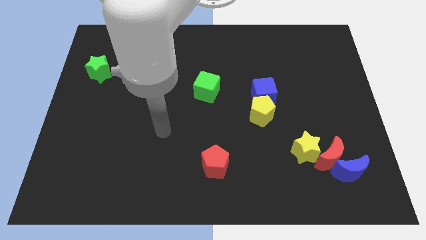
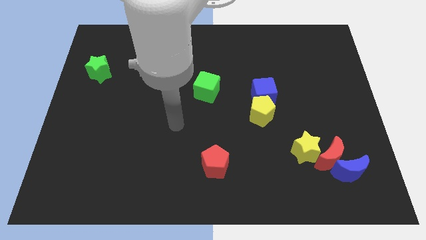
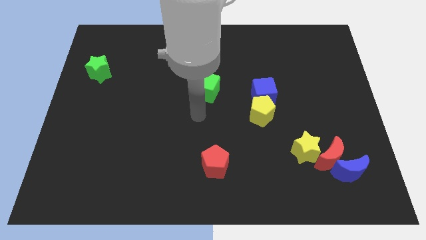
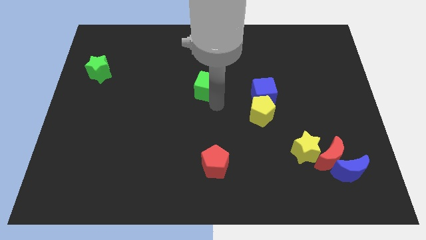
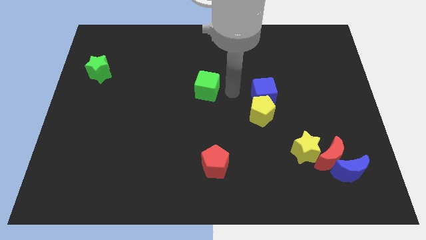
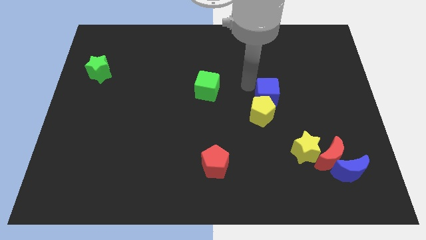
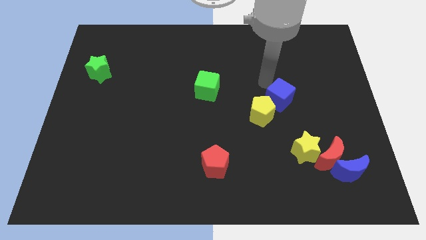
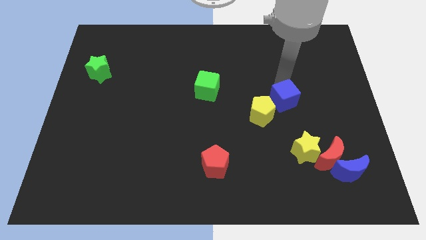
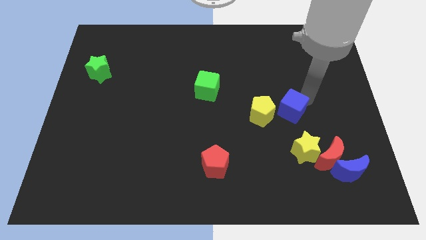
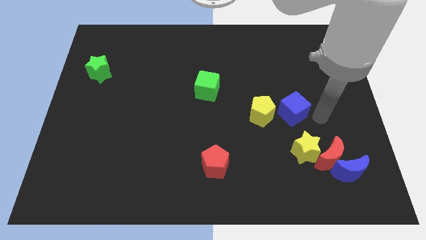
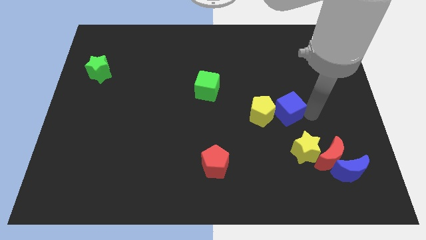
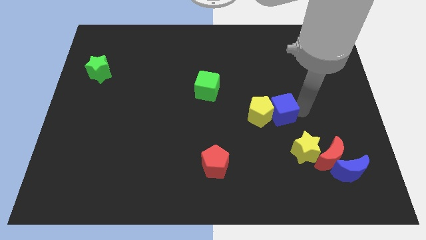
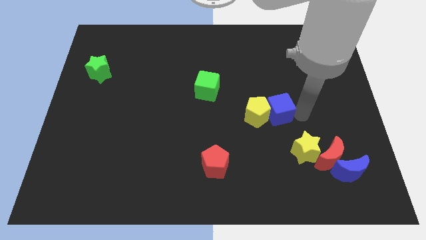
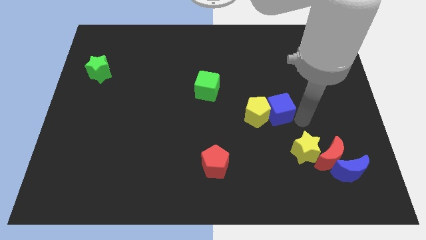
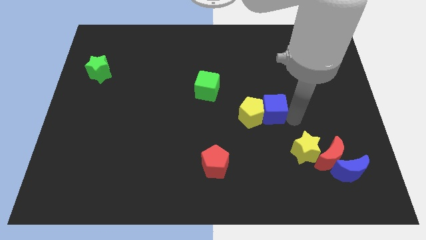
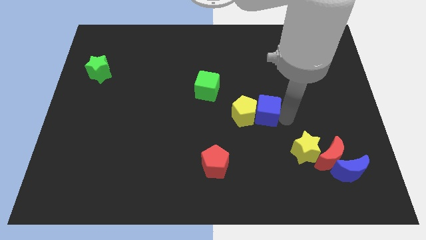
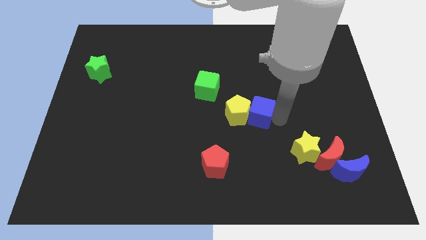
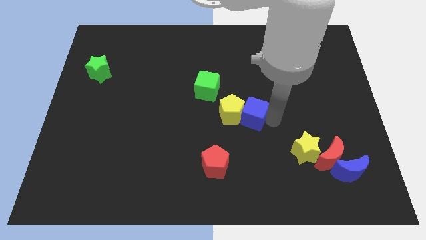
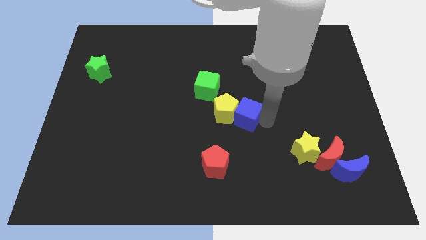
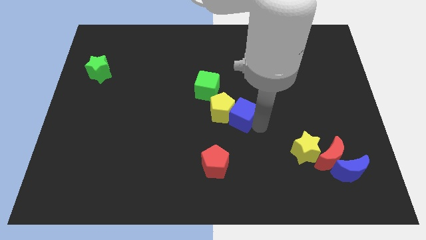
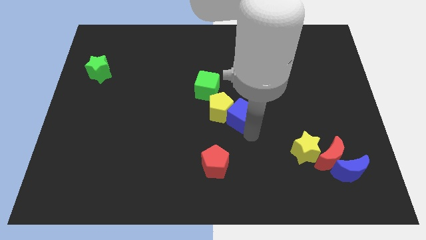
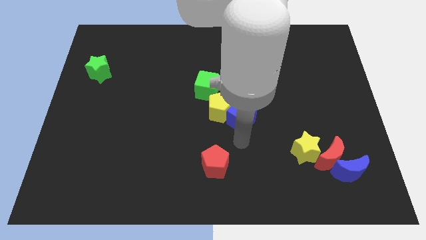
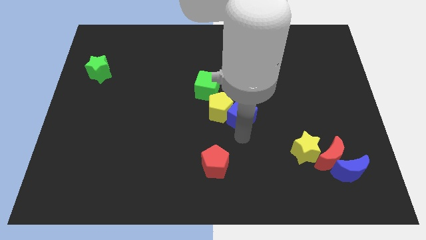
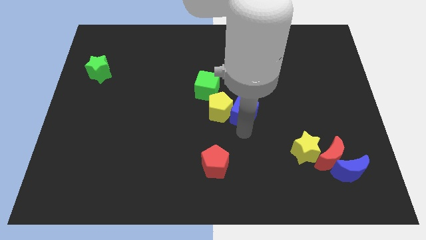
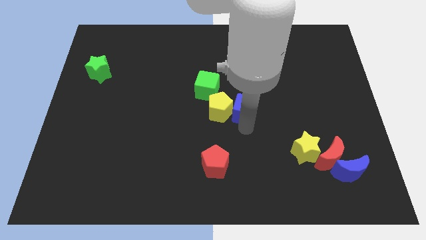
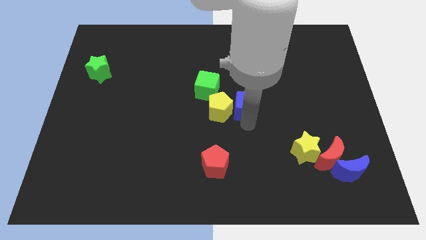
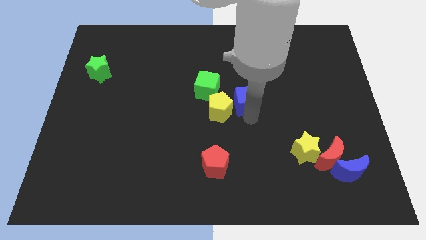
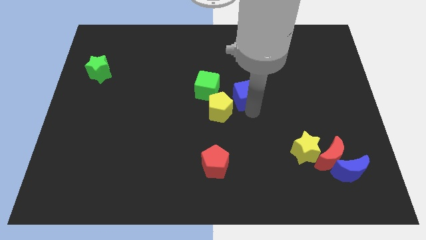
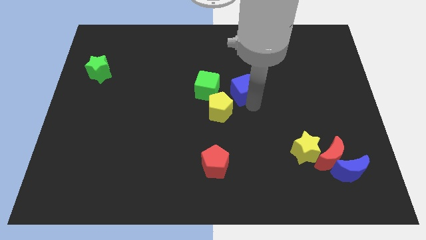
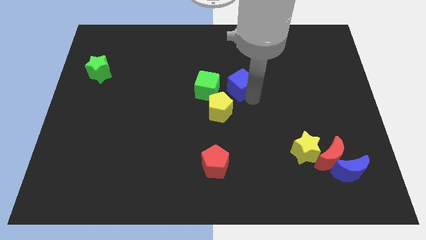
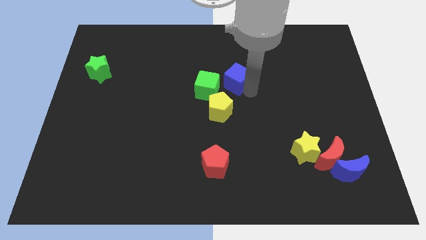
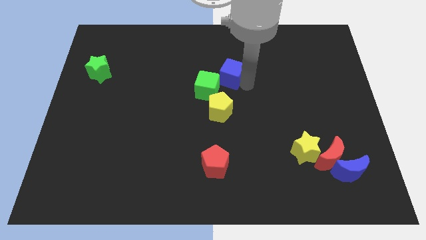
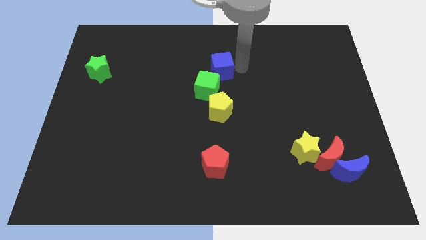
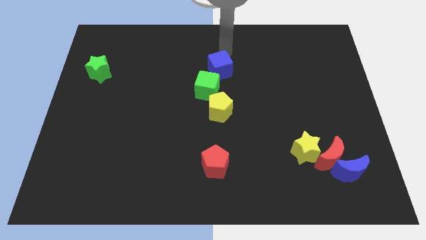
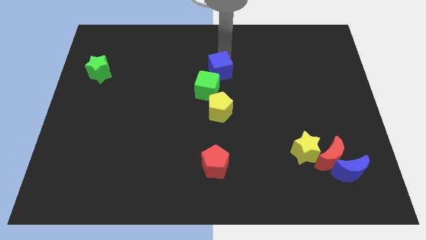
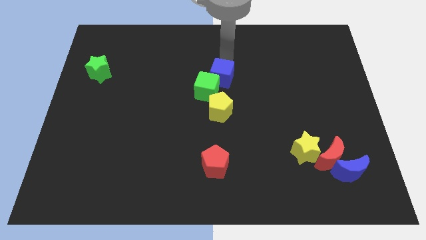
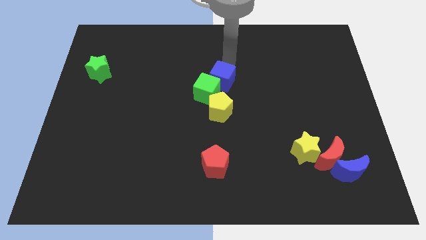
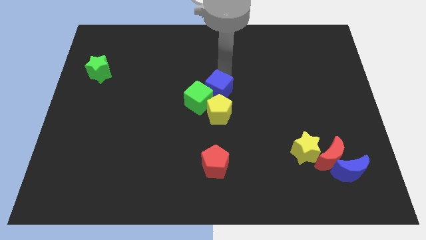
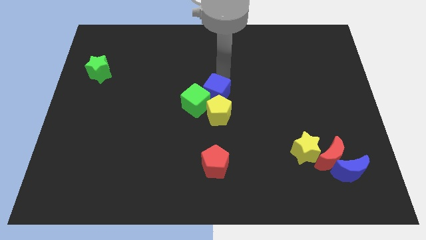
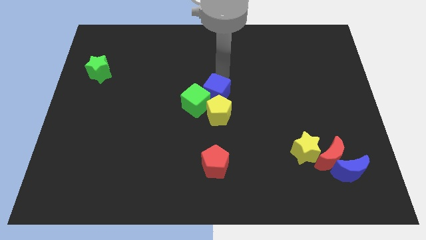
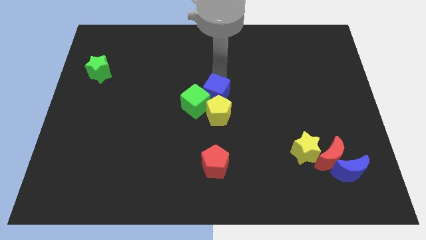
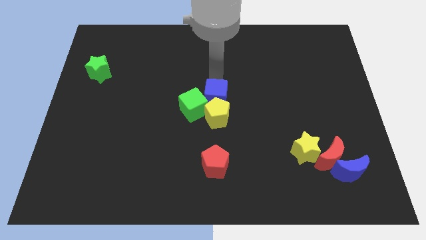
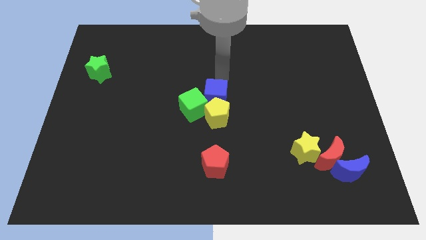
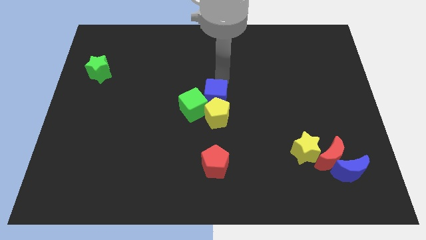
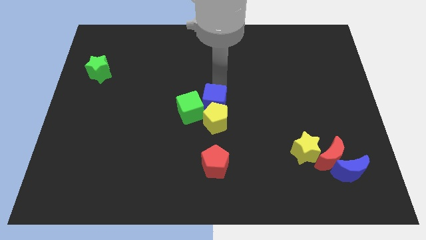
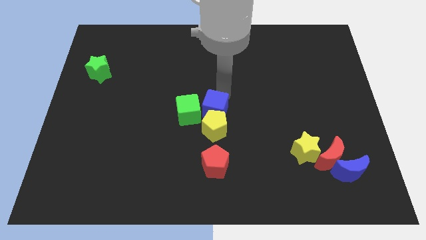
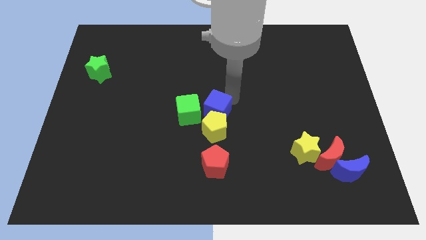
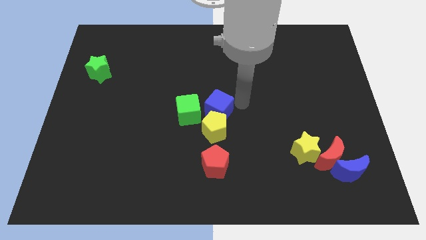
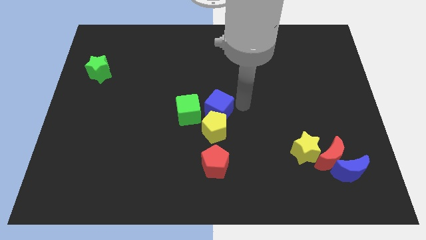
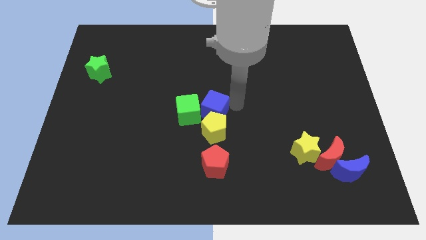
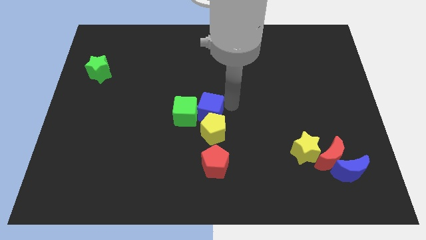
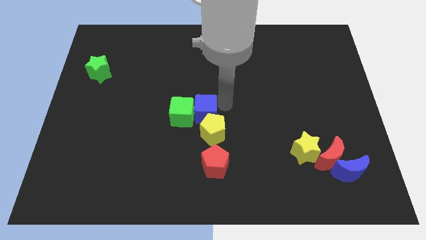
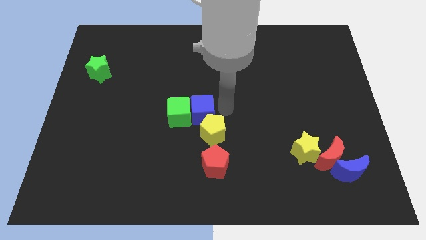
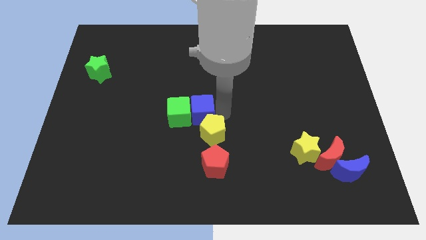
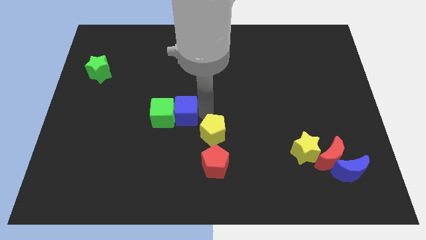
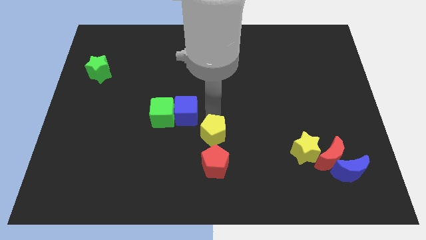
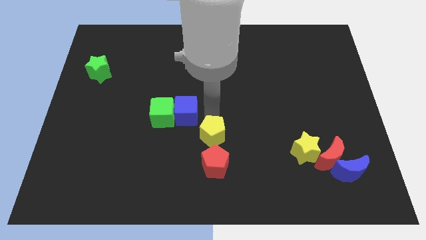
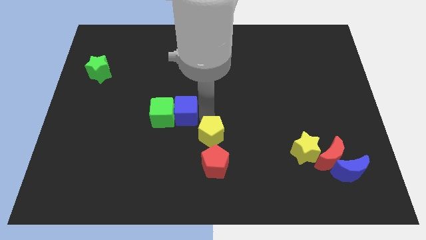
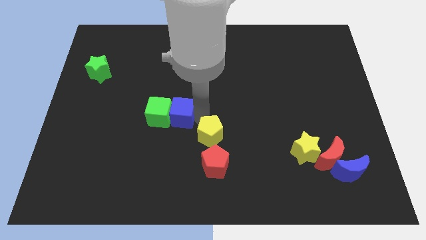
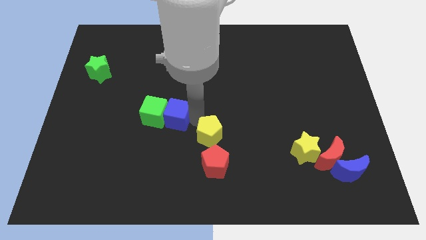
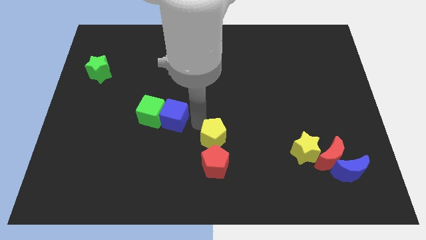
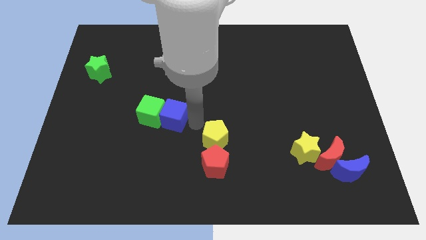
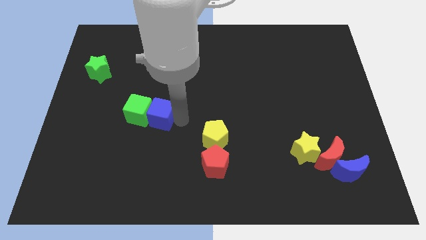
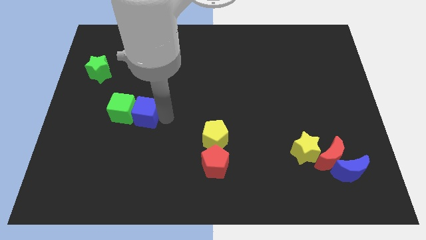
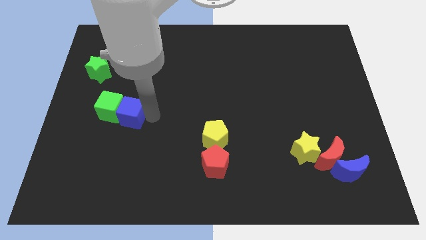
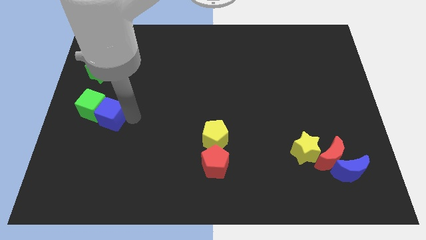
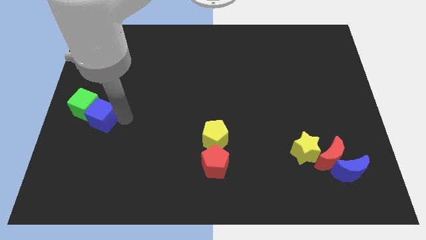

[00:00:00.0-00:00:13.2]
push the blue cube below the green star

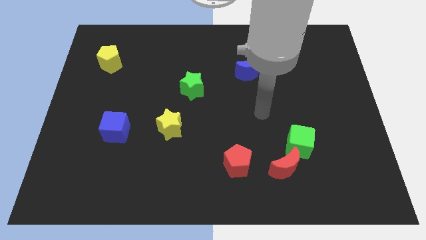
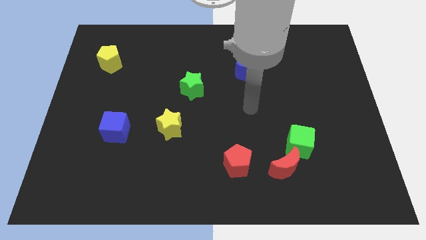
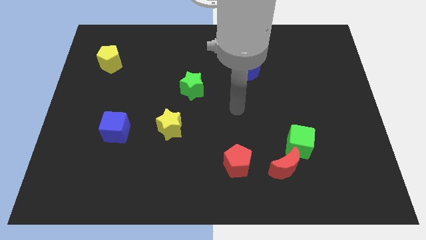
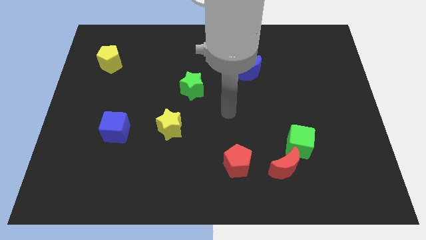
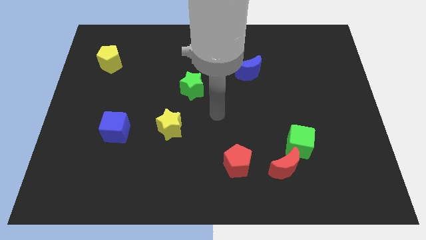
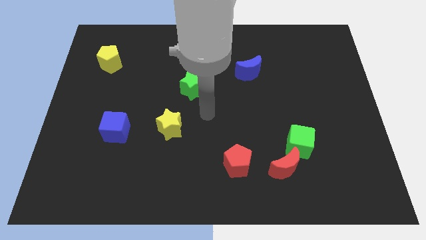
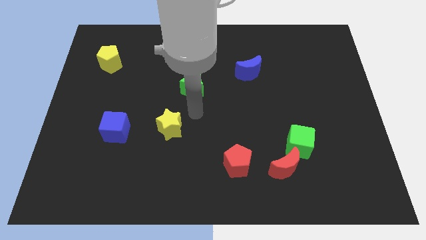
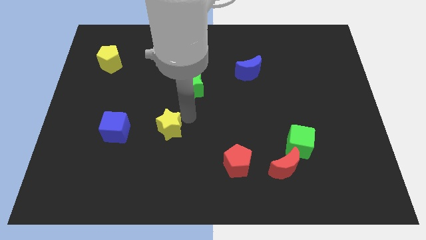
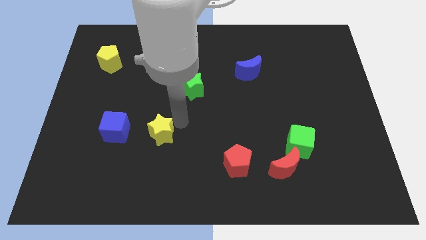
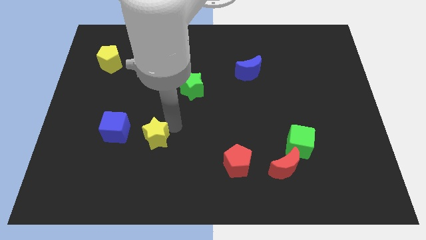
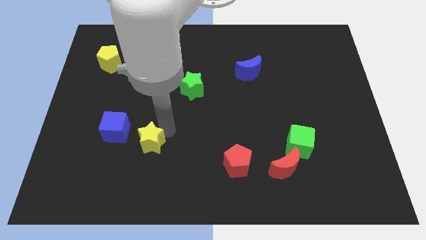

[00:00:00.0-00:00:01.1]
move the yellow star diagonally down and to the right of the blue cube
